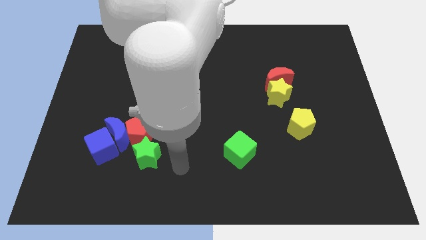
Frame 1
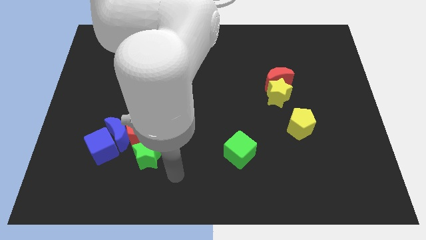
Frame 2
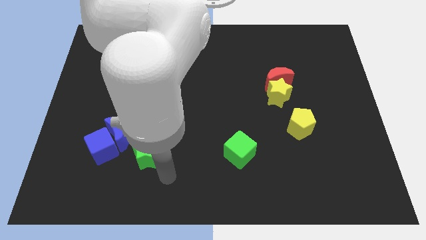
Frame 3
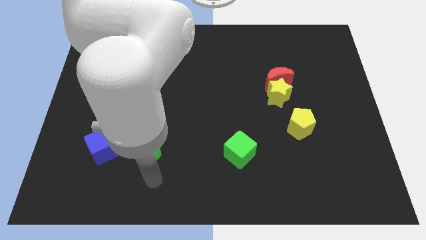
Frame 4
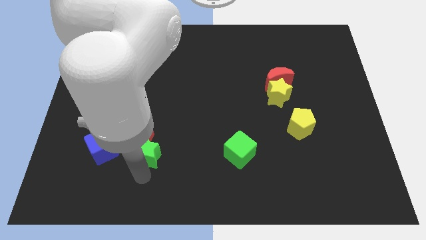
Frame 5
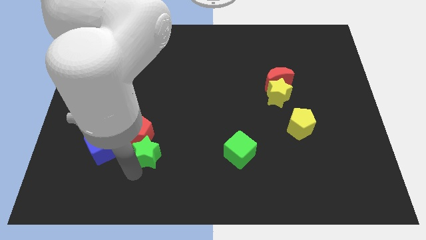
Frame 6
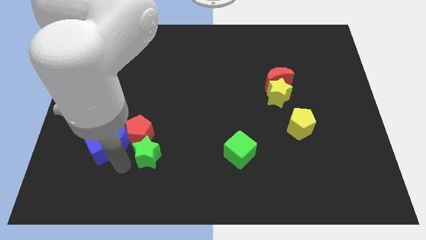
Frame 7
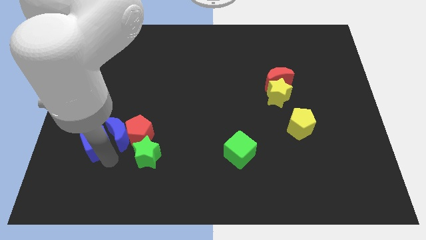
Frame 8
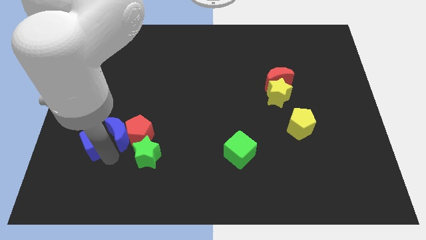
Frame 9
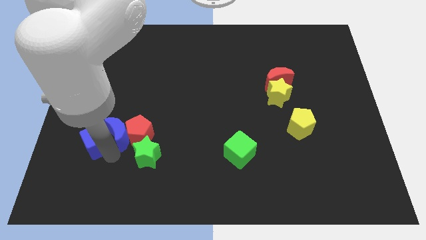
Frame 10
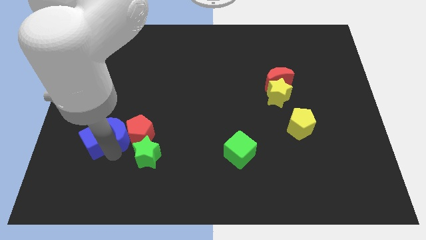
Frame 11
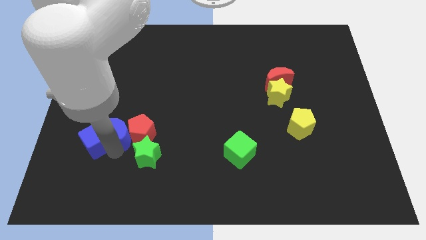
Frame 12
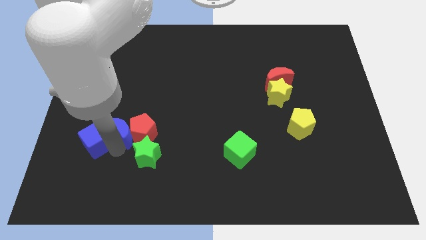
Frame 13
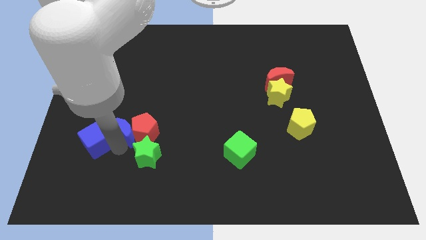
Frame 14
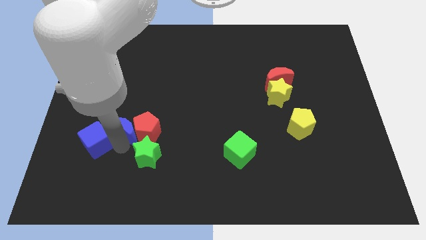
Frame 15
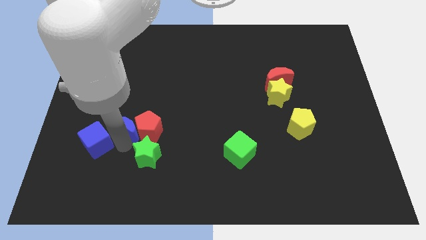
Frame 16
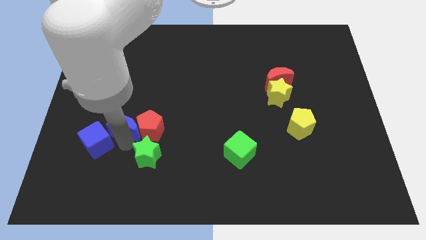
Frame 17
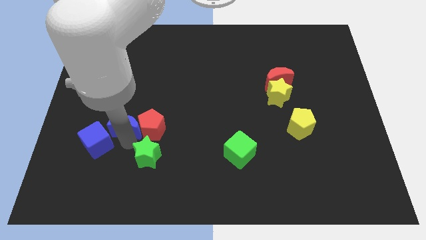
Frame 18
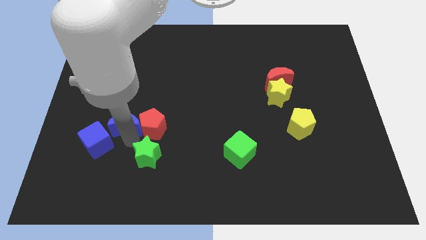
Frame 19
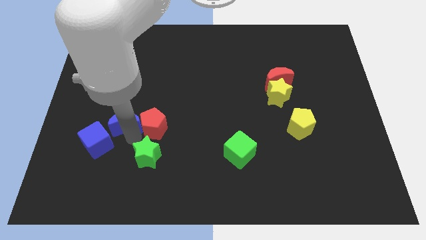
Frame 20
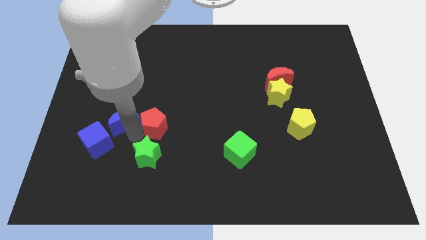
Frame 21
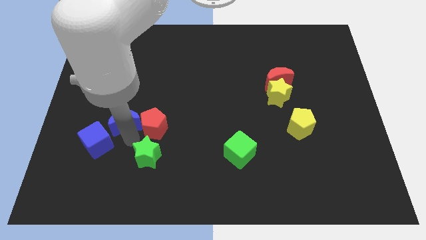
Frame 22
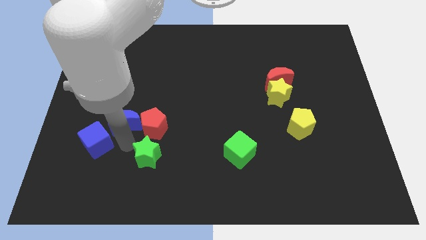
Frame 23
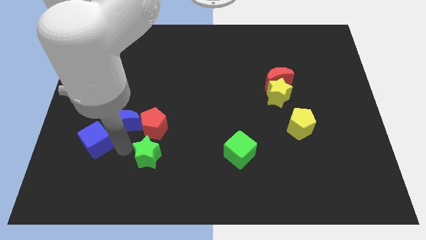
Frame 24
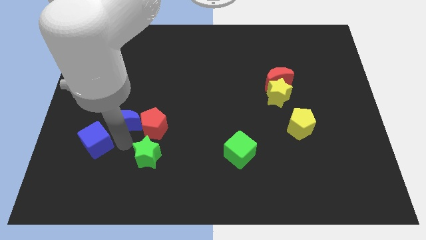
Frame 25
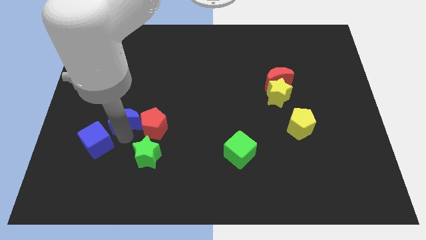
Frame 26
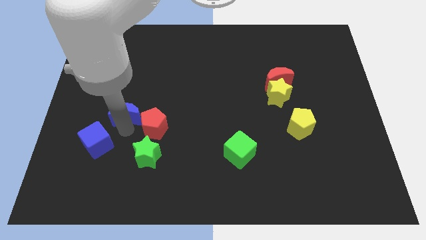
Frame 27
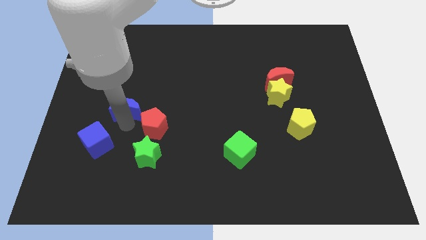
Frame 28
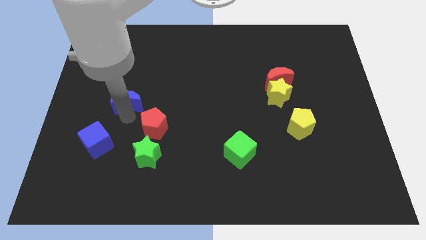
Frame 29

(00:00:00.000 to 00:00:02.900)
slide the blue moon upwards a little

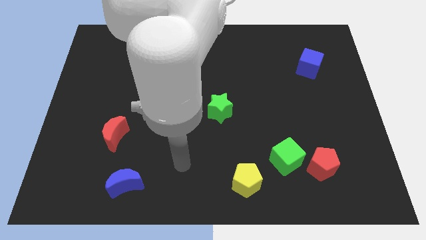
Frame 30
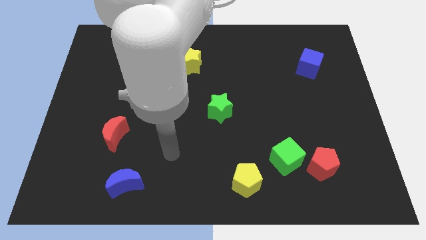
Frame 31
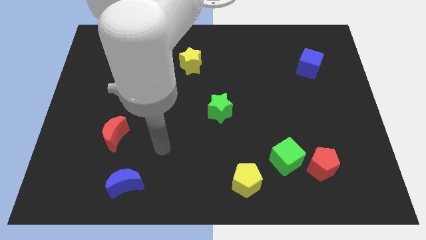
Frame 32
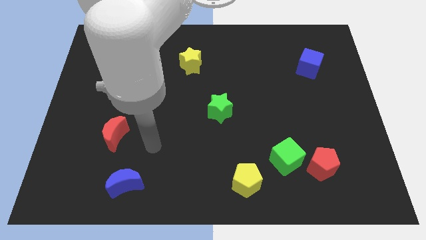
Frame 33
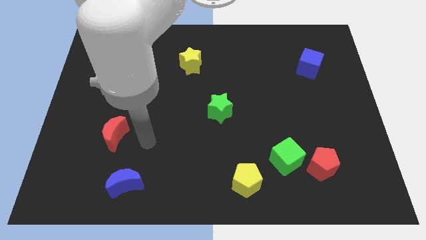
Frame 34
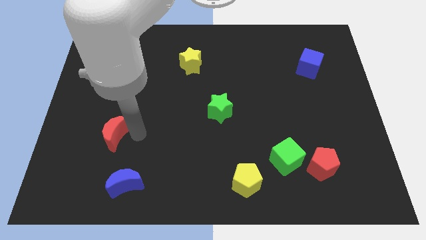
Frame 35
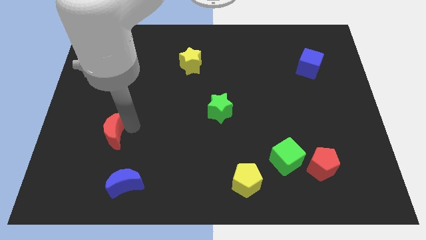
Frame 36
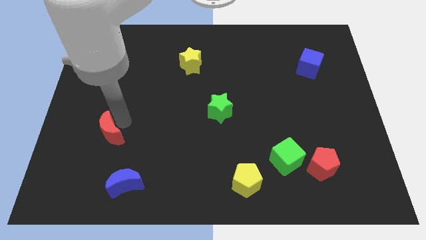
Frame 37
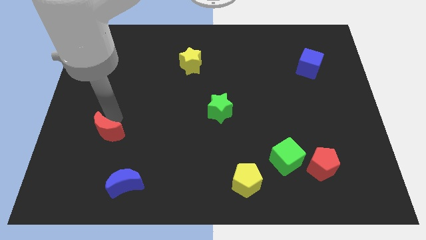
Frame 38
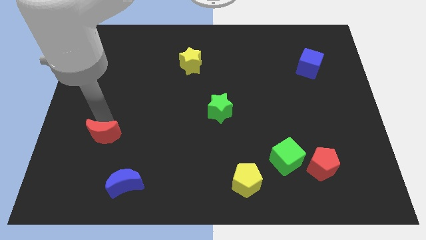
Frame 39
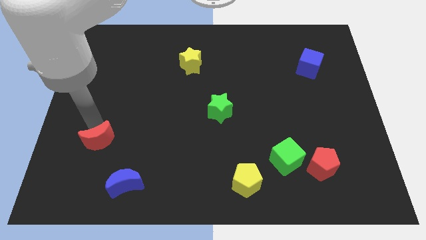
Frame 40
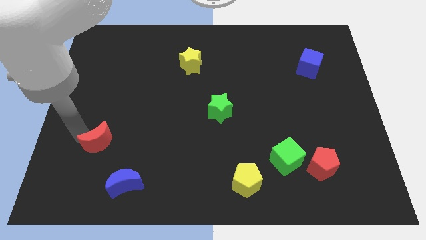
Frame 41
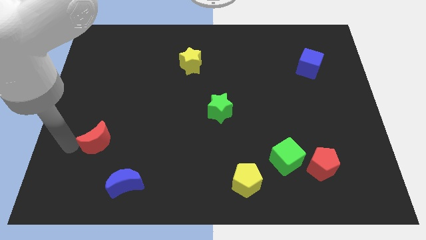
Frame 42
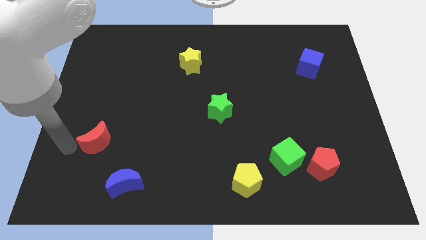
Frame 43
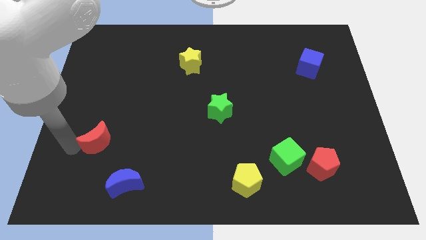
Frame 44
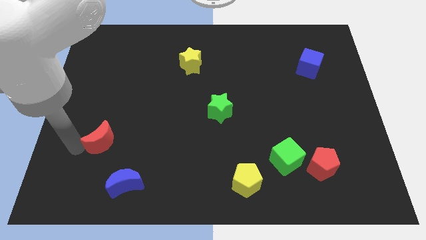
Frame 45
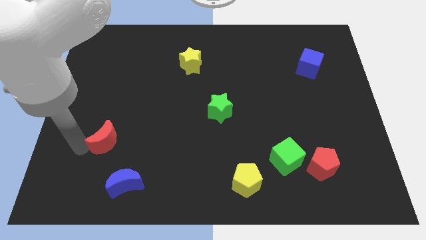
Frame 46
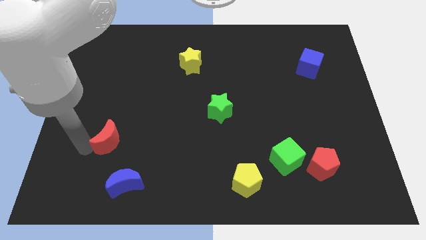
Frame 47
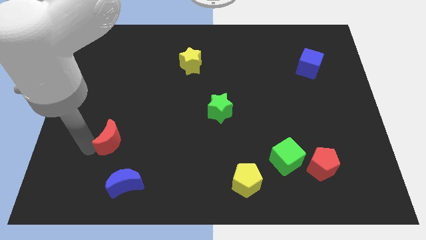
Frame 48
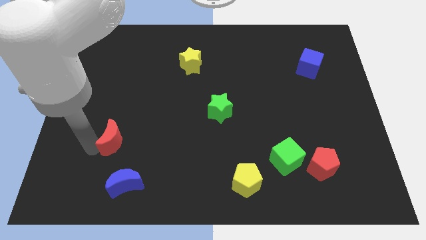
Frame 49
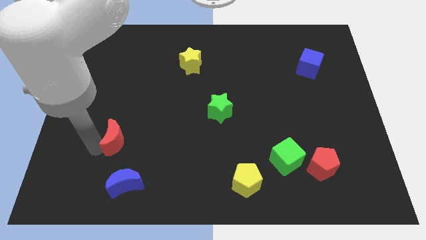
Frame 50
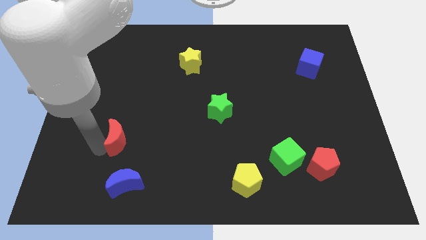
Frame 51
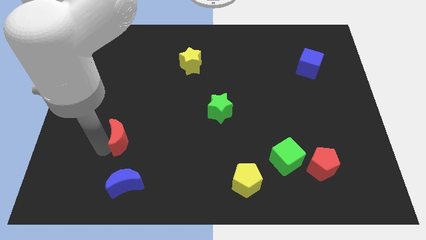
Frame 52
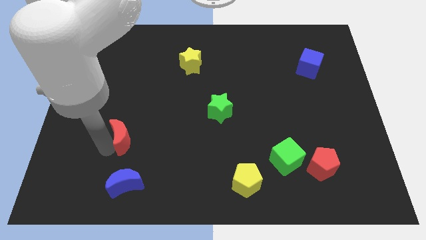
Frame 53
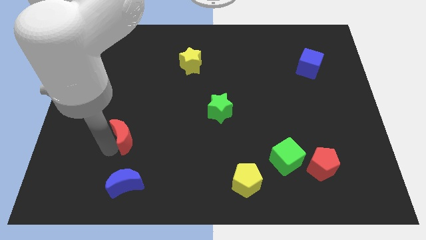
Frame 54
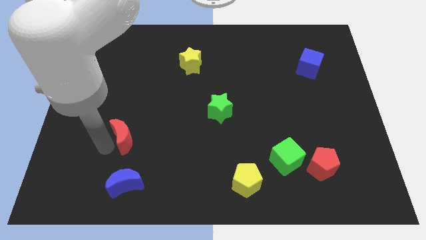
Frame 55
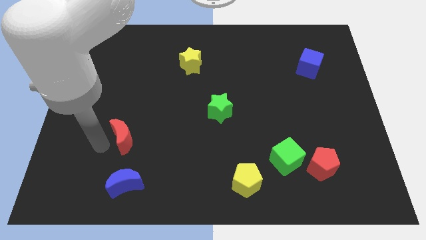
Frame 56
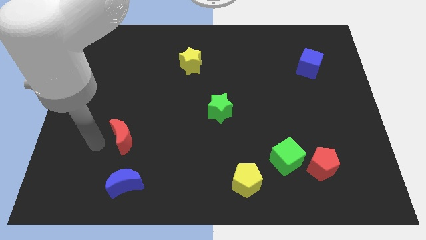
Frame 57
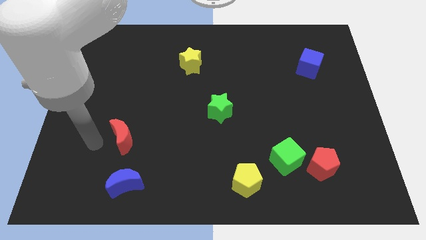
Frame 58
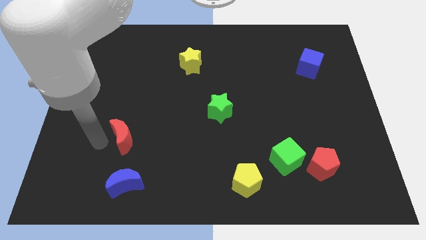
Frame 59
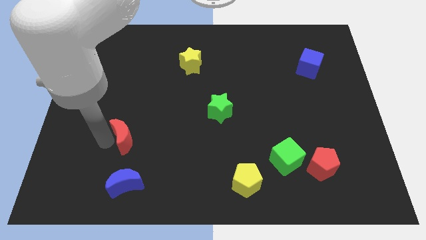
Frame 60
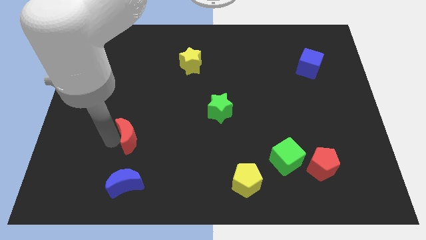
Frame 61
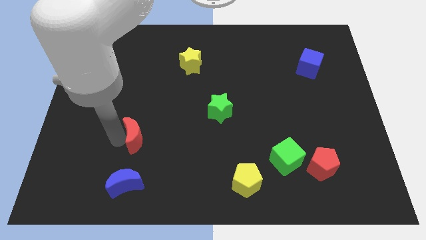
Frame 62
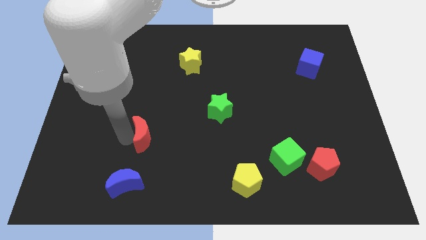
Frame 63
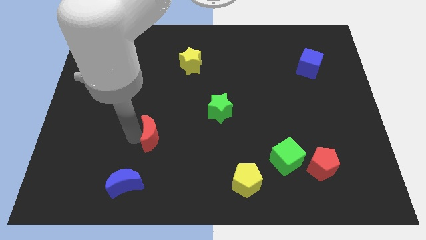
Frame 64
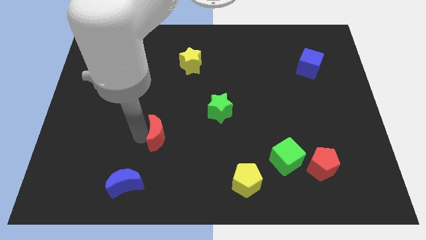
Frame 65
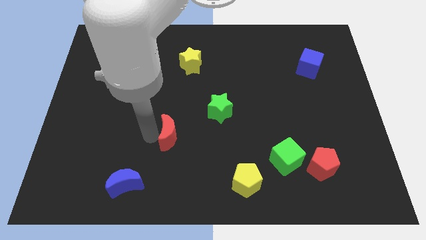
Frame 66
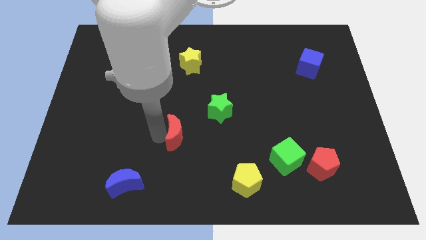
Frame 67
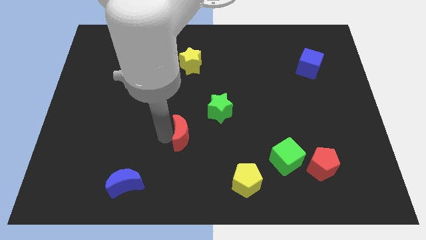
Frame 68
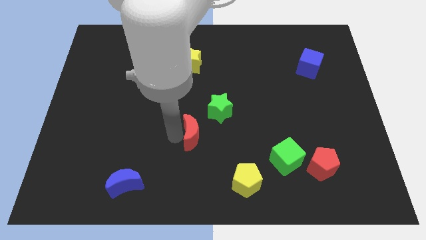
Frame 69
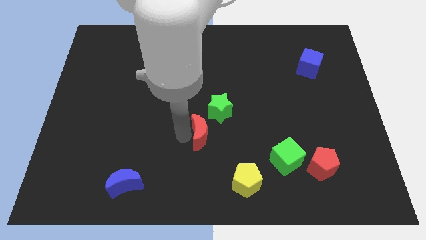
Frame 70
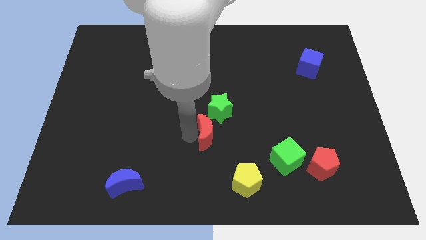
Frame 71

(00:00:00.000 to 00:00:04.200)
slide the red moon right

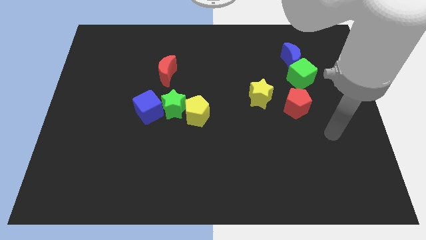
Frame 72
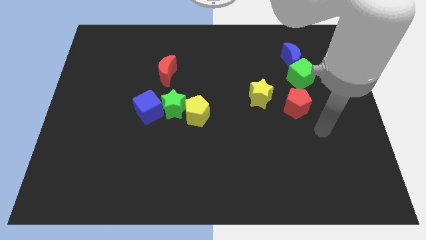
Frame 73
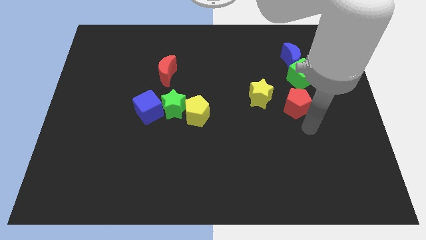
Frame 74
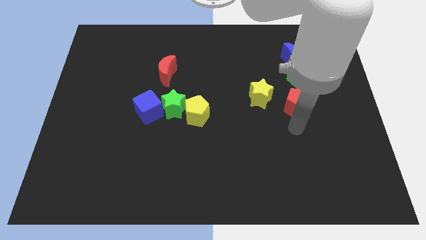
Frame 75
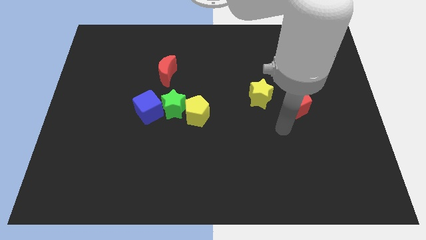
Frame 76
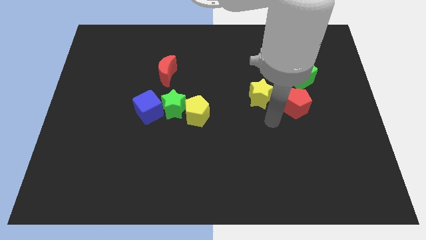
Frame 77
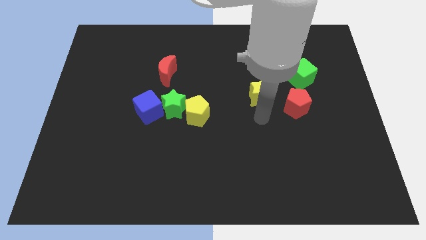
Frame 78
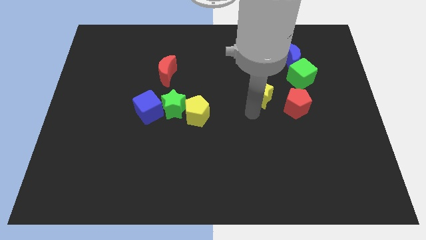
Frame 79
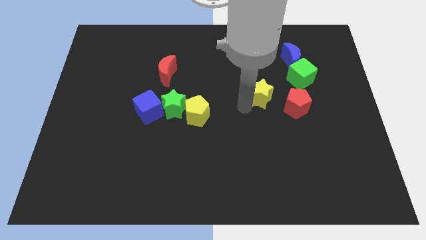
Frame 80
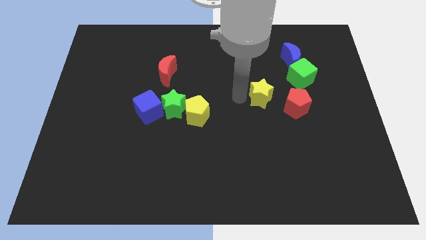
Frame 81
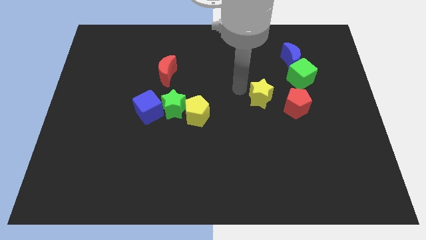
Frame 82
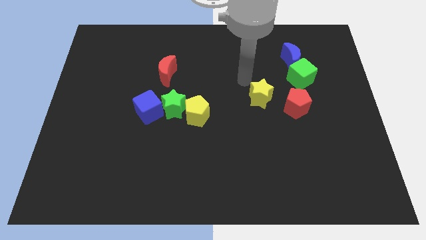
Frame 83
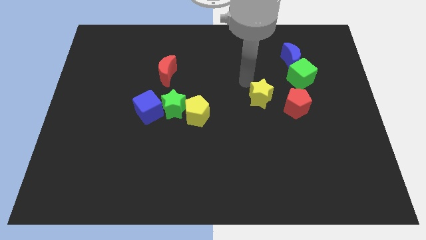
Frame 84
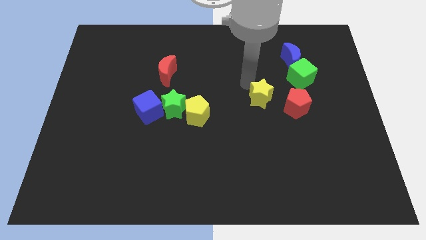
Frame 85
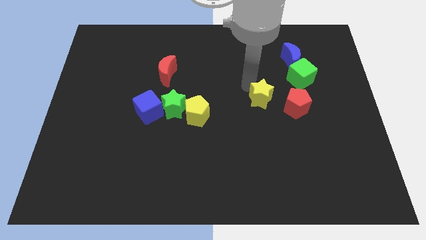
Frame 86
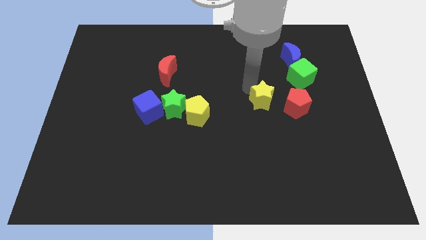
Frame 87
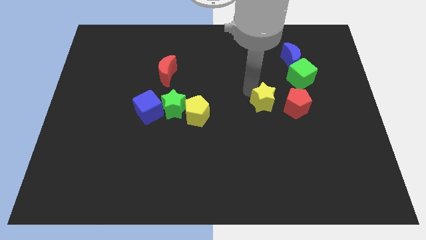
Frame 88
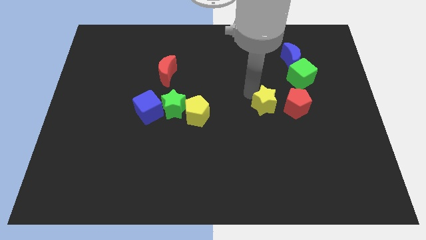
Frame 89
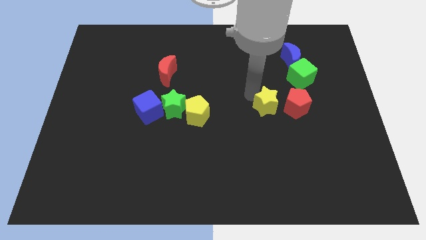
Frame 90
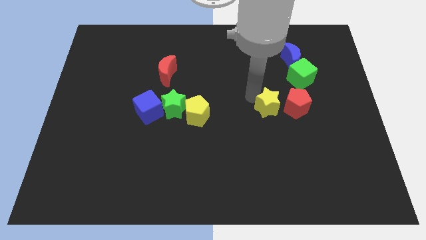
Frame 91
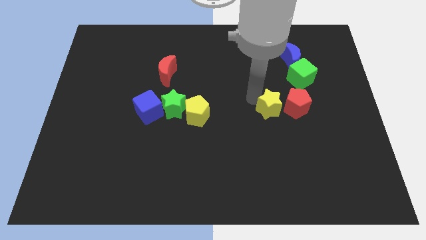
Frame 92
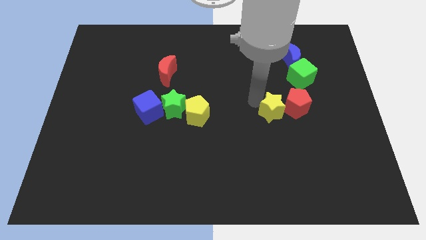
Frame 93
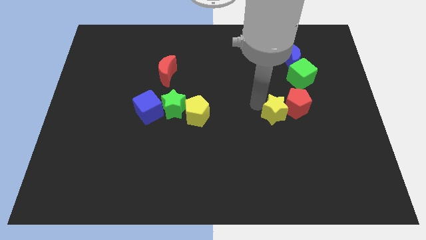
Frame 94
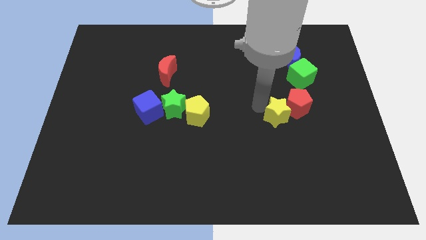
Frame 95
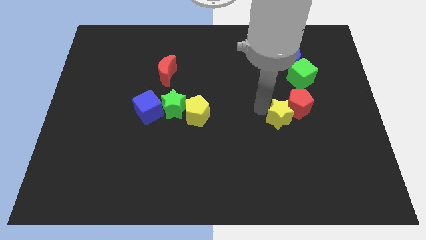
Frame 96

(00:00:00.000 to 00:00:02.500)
slightly move the yellow star downwards and right diagonally
